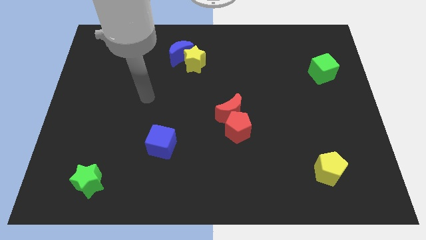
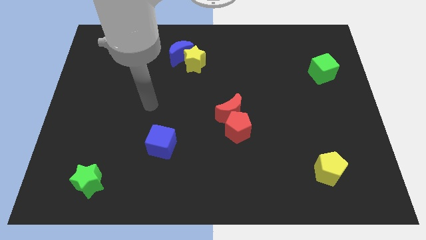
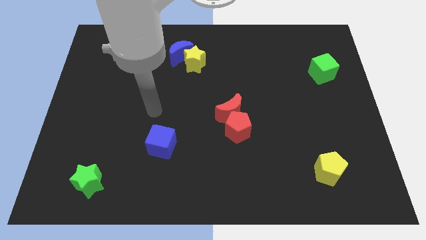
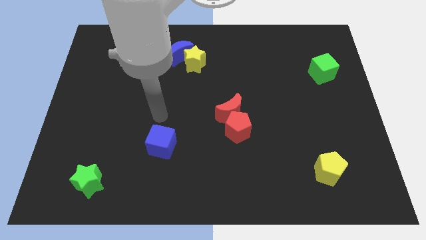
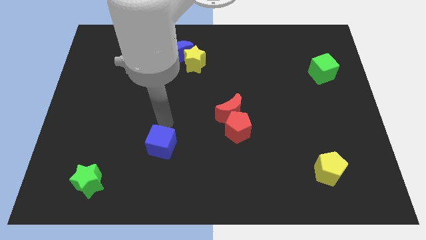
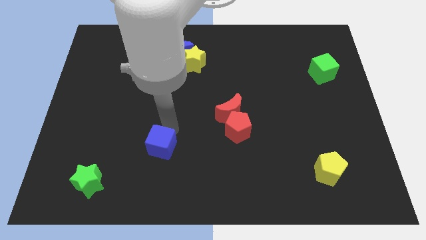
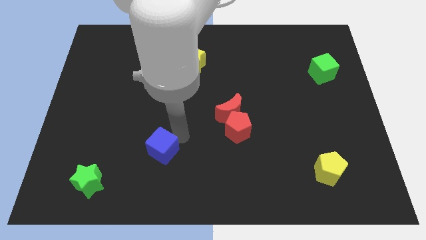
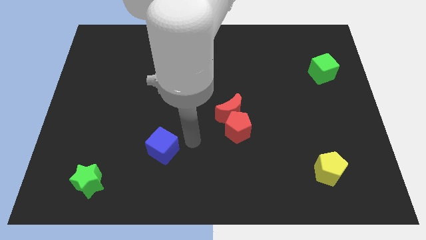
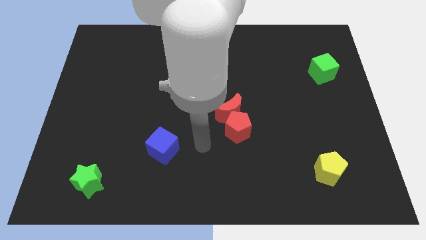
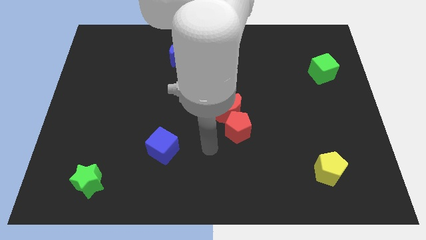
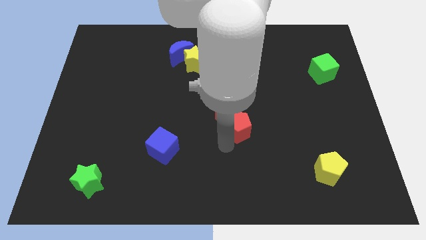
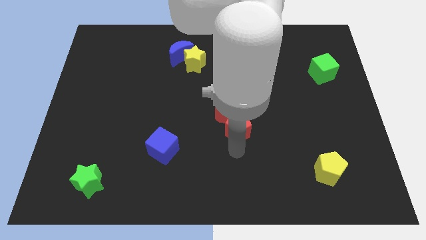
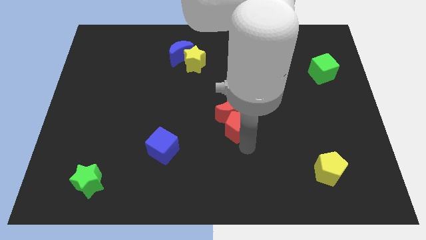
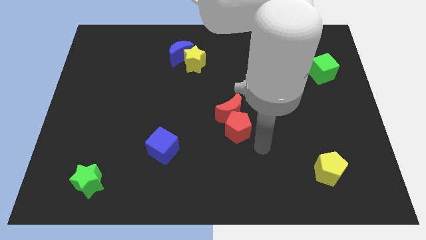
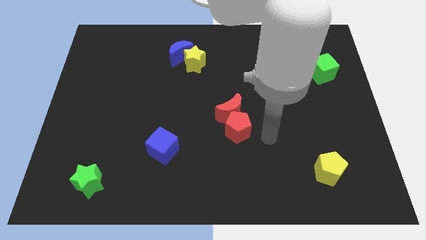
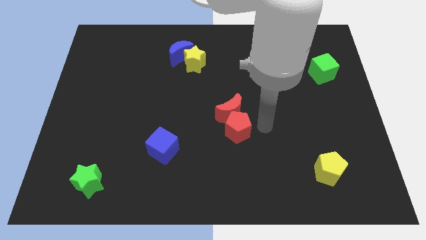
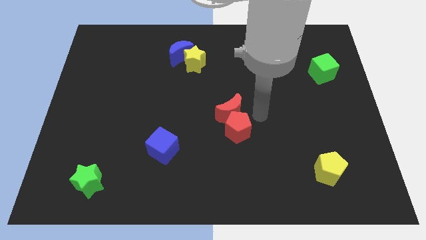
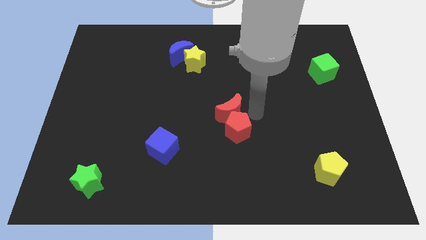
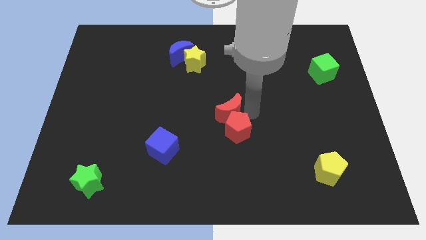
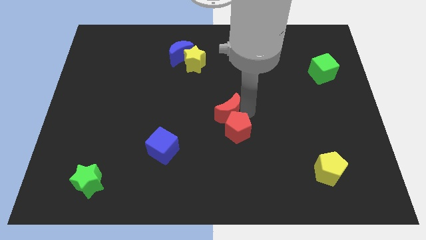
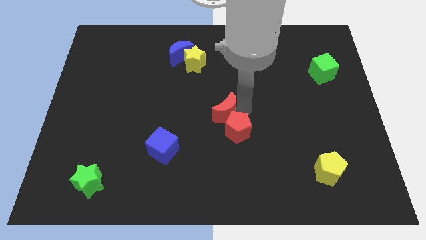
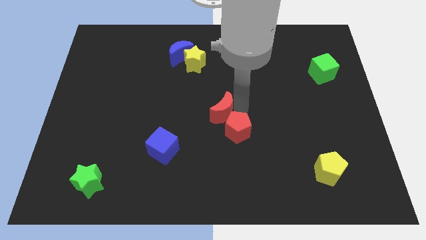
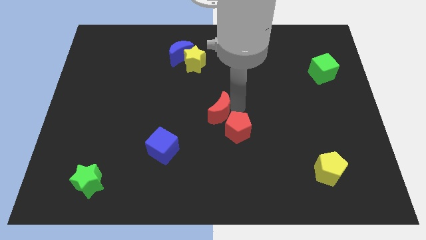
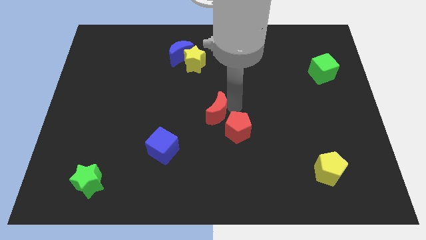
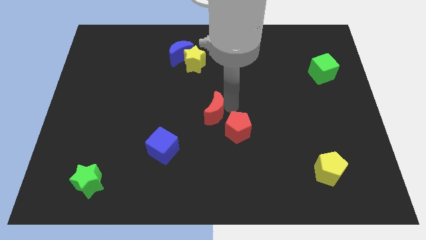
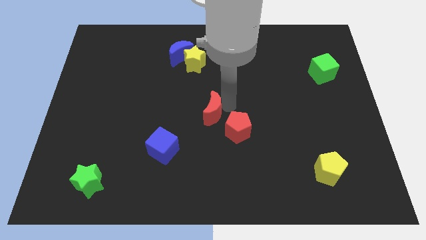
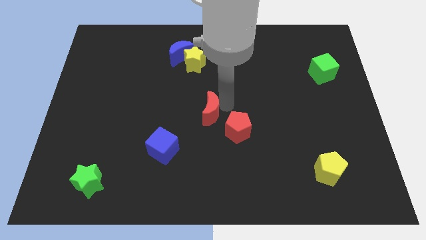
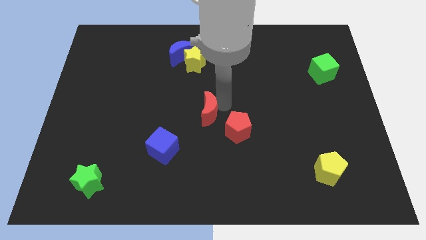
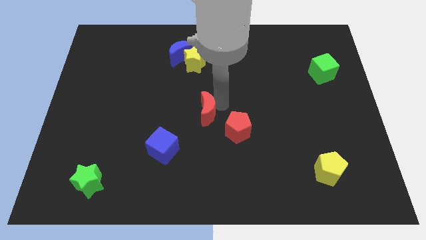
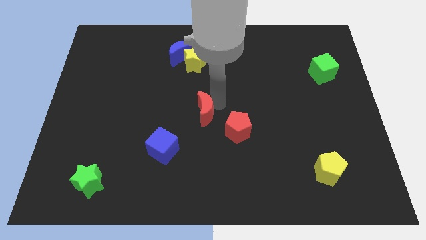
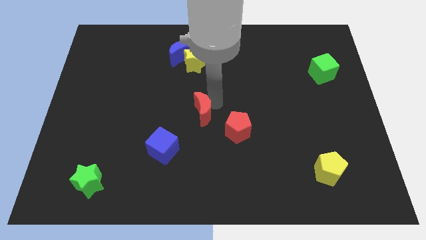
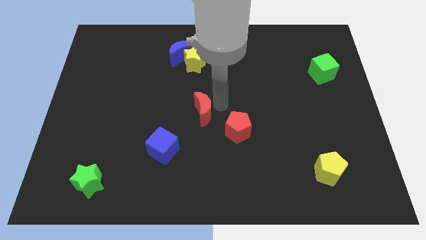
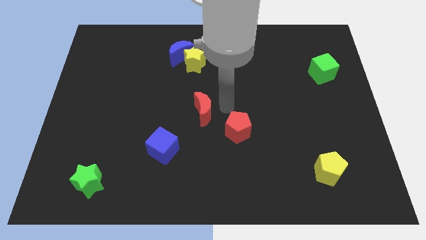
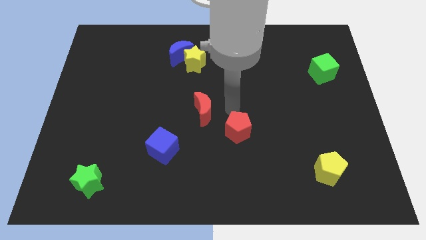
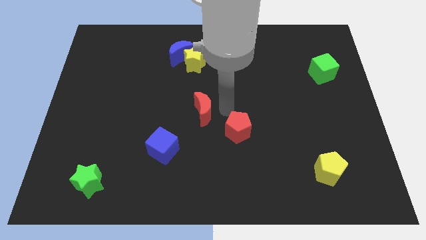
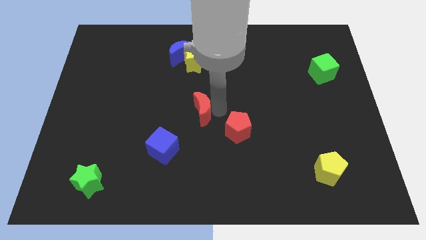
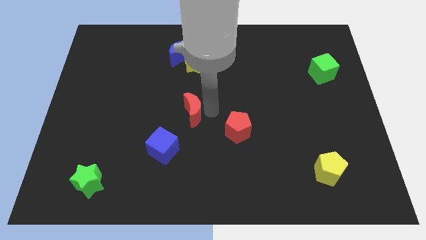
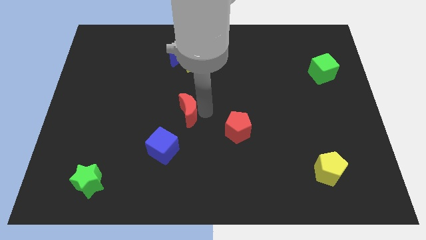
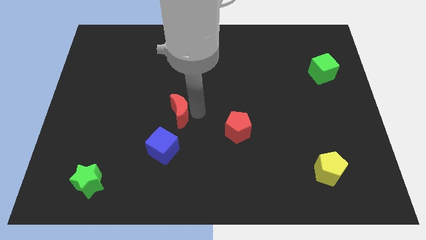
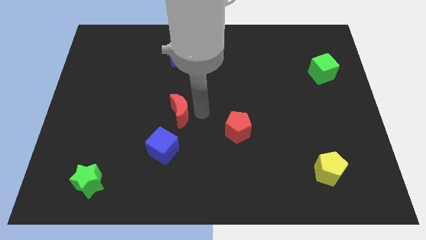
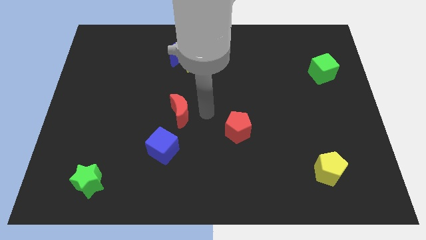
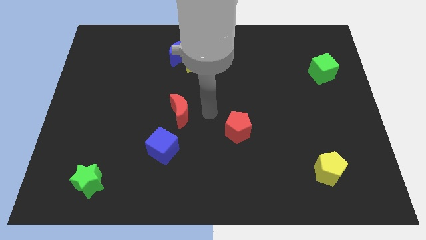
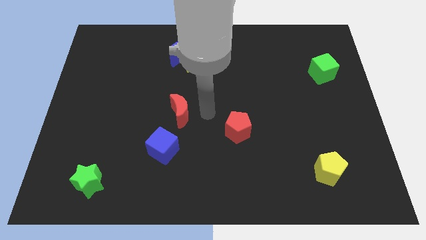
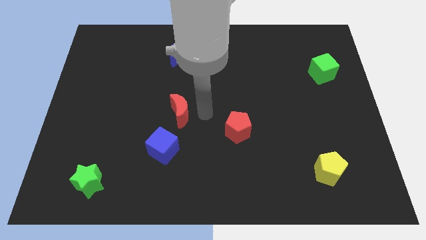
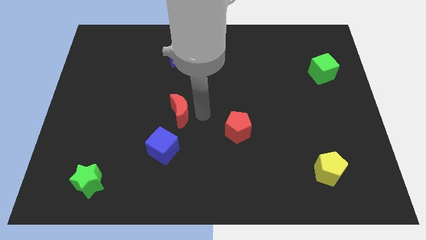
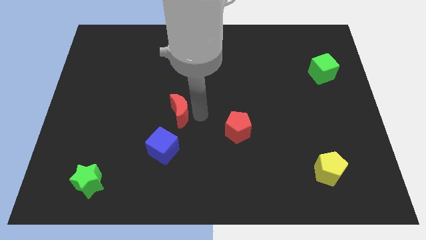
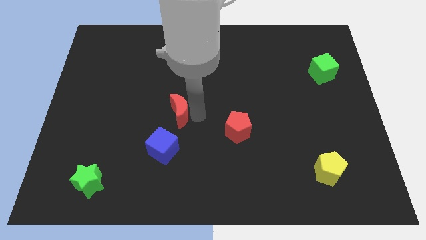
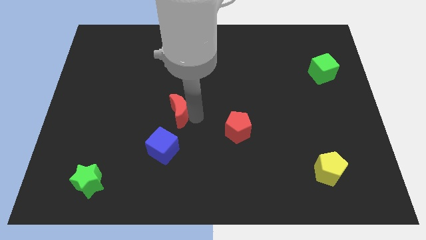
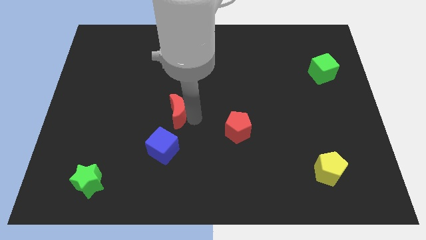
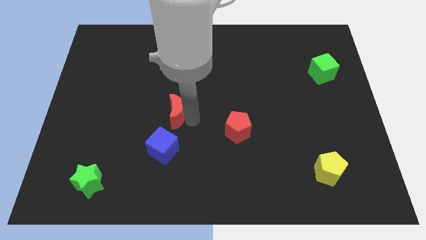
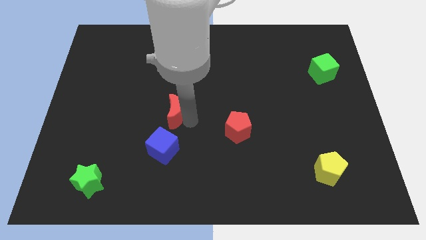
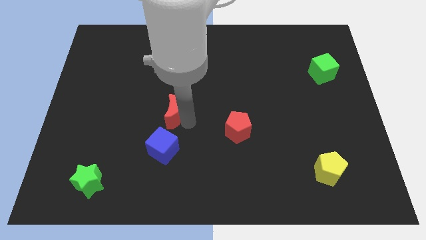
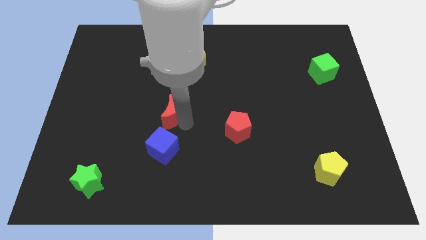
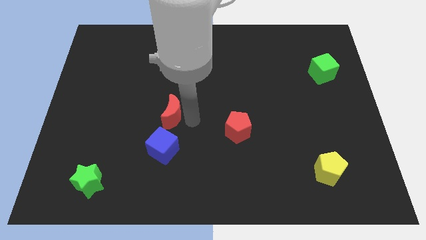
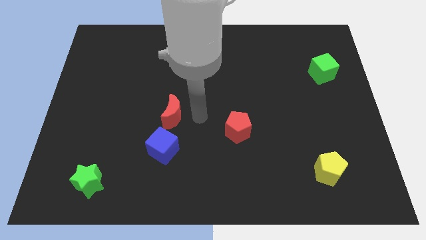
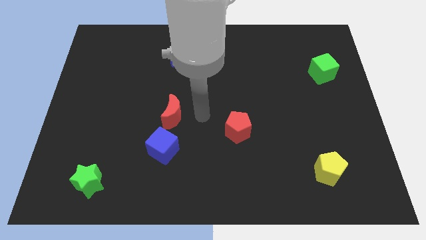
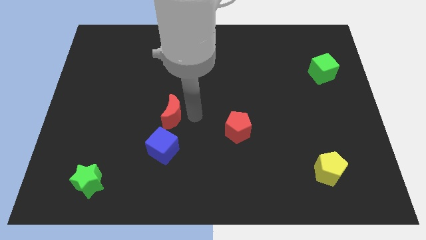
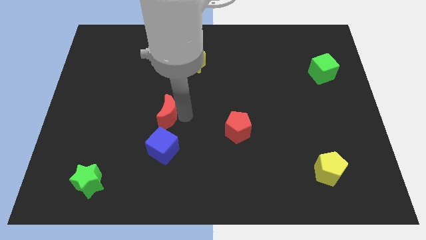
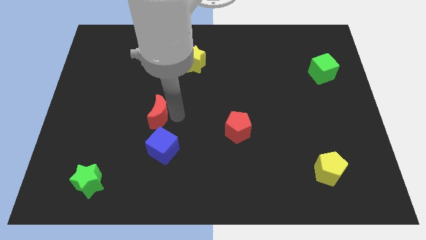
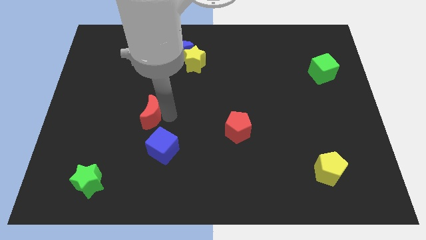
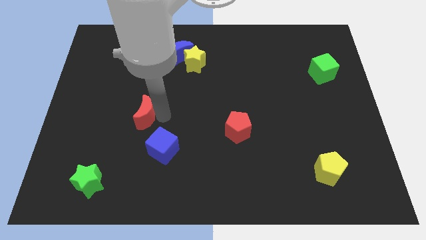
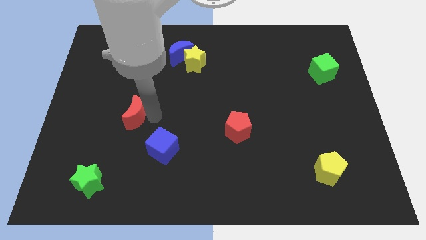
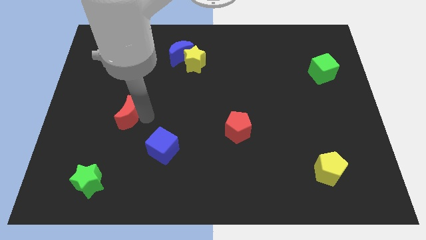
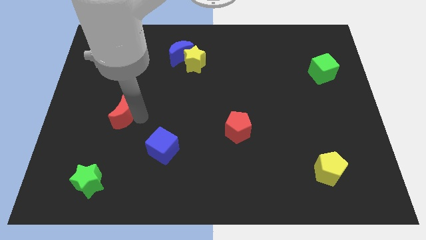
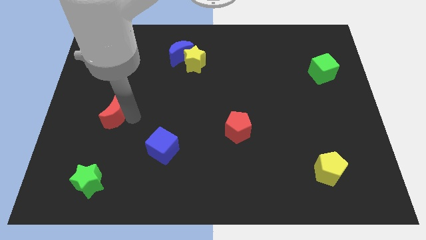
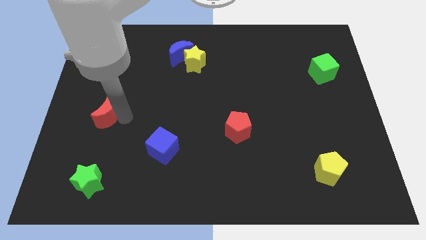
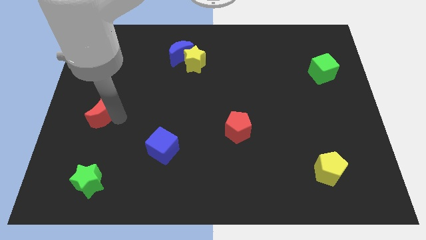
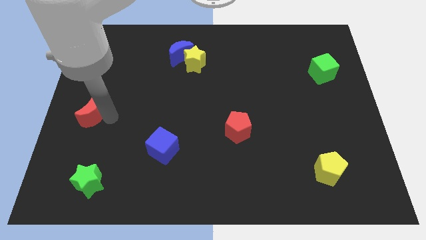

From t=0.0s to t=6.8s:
move the red moon to the center left
